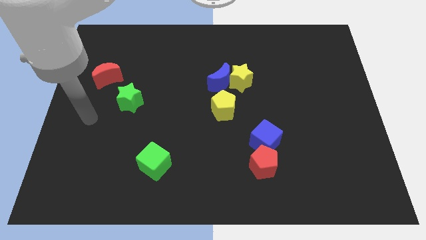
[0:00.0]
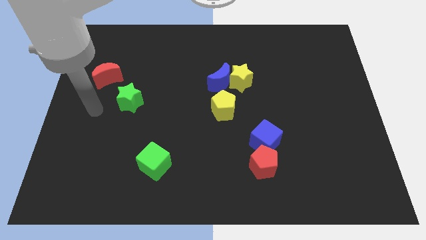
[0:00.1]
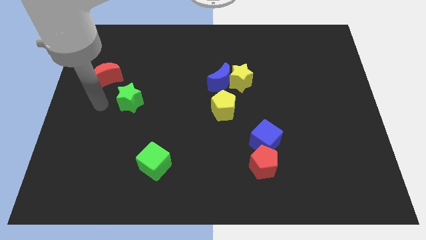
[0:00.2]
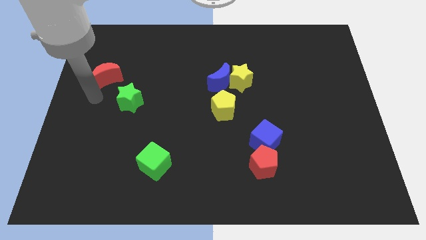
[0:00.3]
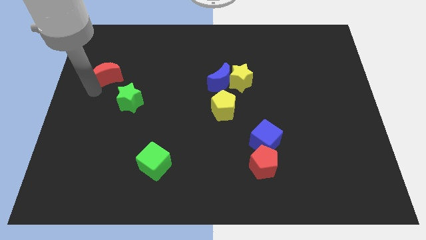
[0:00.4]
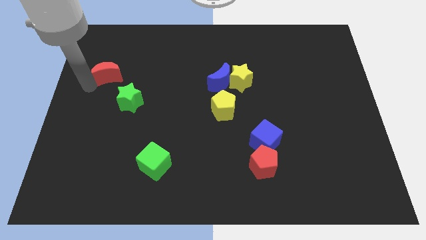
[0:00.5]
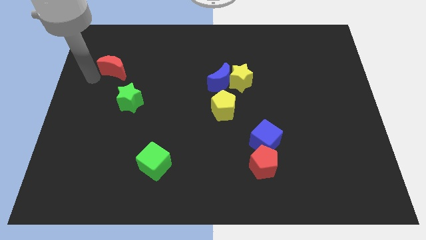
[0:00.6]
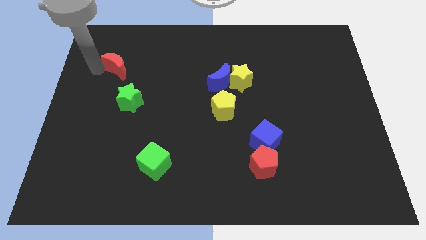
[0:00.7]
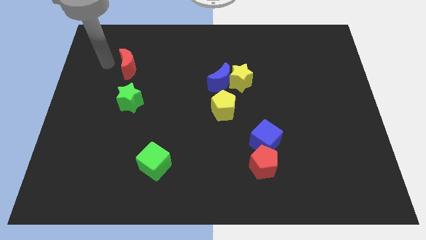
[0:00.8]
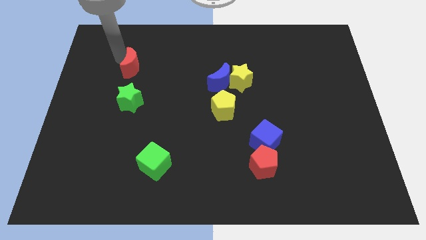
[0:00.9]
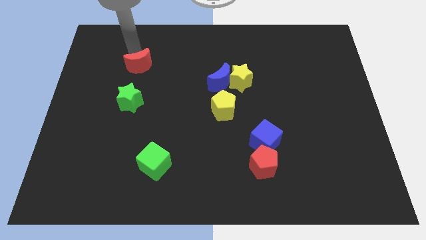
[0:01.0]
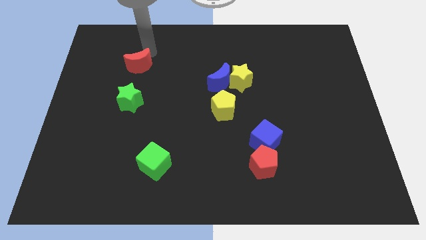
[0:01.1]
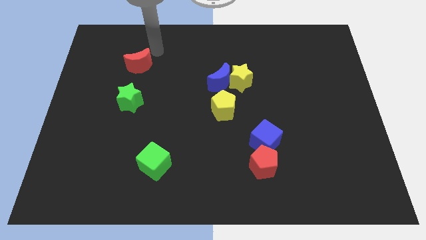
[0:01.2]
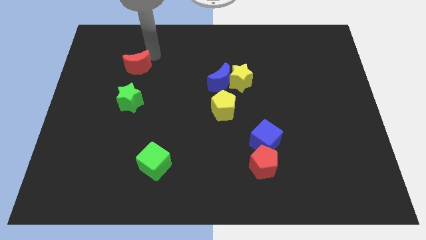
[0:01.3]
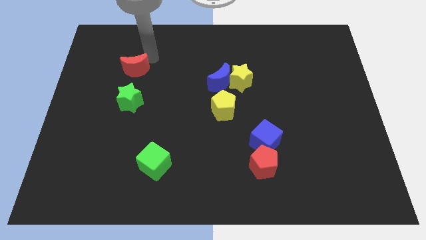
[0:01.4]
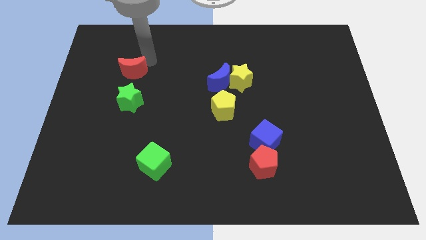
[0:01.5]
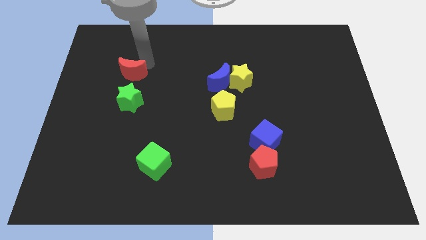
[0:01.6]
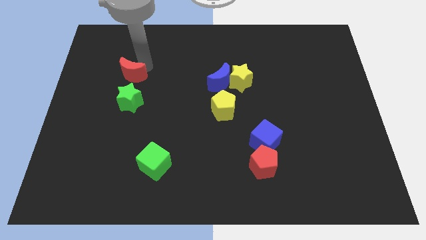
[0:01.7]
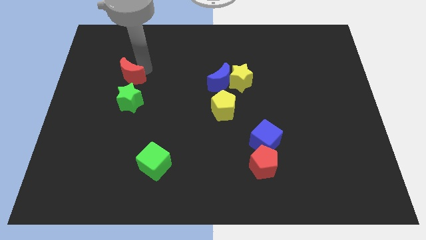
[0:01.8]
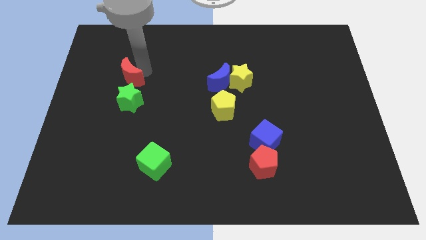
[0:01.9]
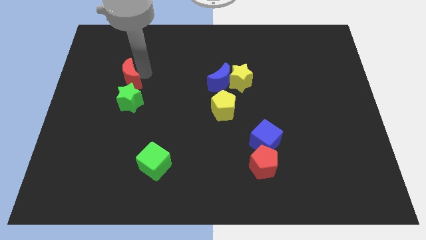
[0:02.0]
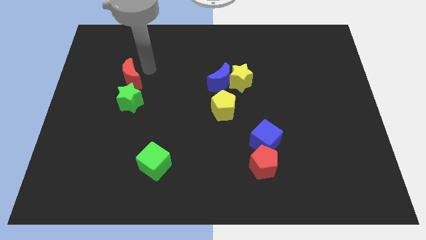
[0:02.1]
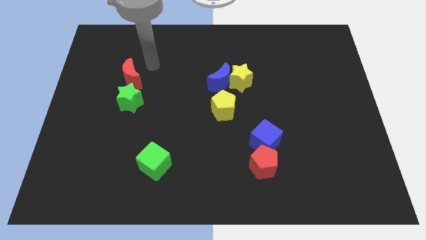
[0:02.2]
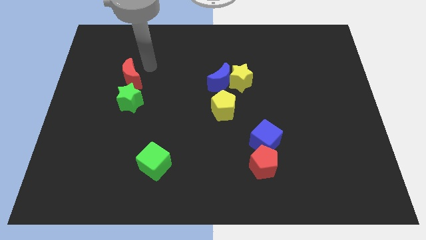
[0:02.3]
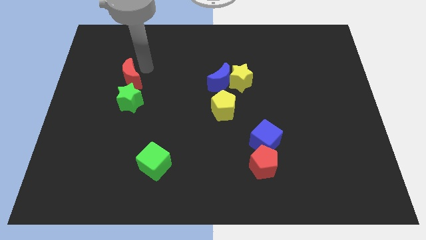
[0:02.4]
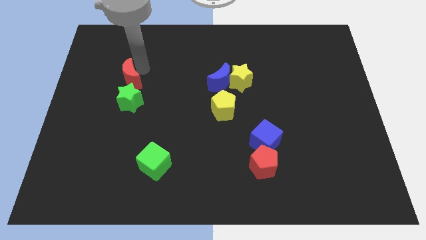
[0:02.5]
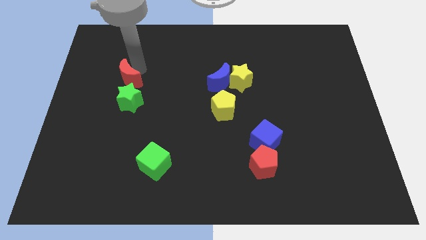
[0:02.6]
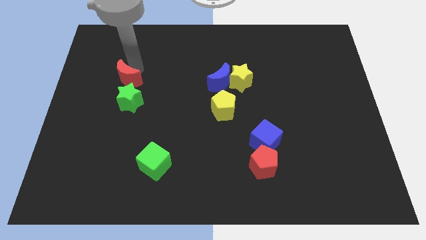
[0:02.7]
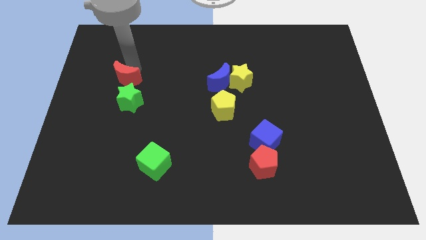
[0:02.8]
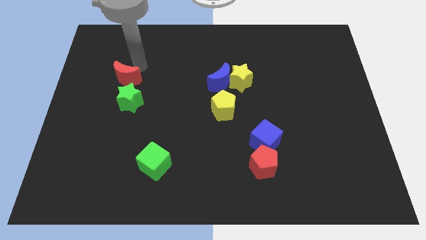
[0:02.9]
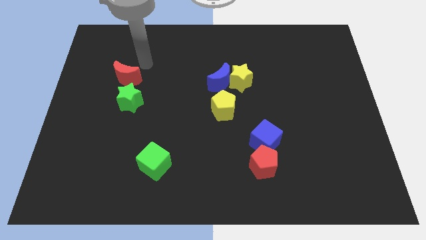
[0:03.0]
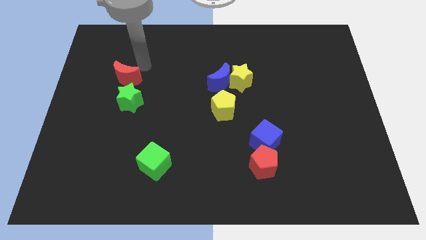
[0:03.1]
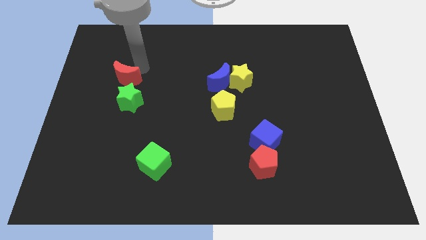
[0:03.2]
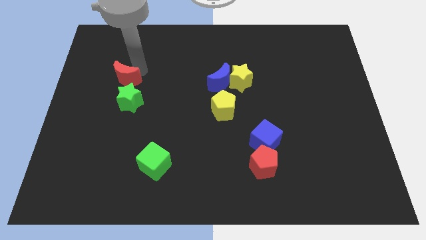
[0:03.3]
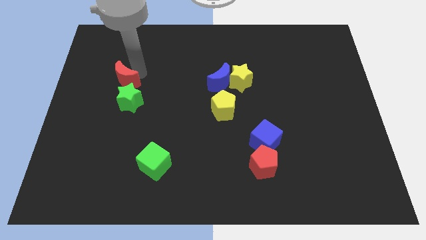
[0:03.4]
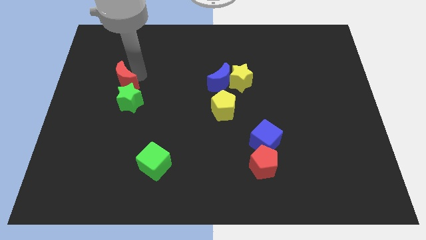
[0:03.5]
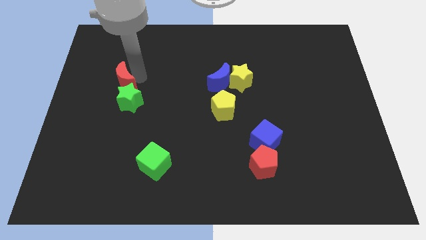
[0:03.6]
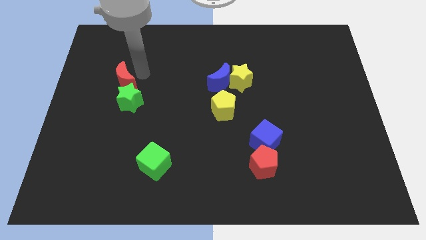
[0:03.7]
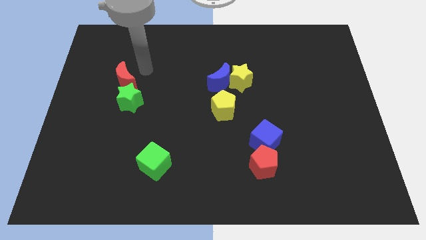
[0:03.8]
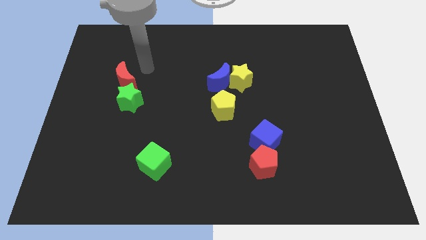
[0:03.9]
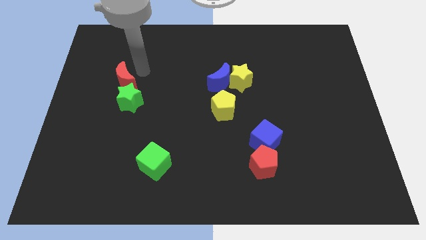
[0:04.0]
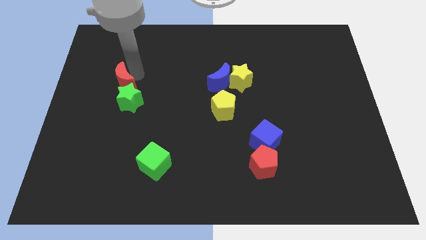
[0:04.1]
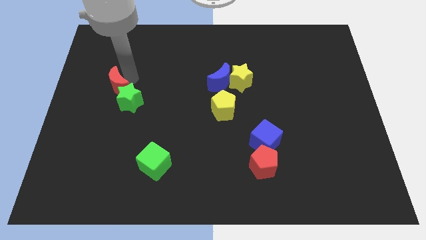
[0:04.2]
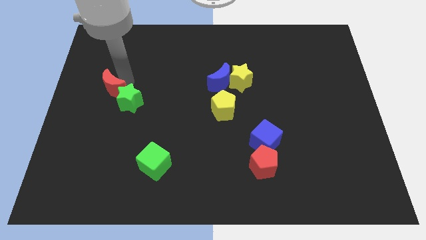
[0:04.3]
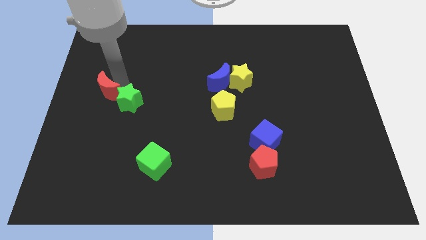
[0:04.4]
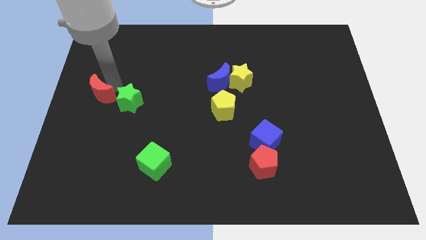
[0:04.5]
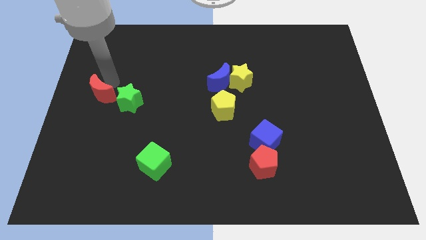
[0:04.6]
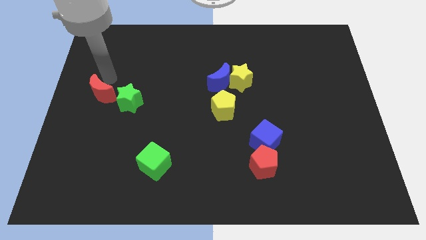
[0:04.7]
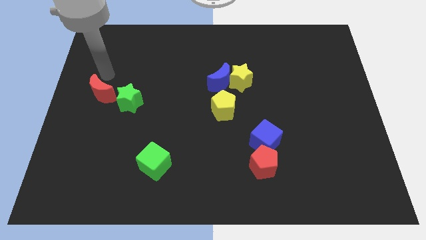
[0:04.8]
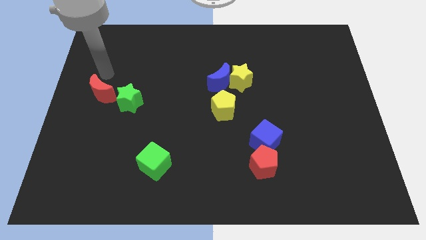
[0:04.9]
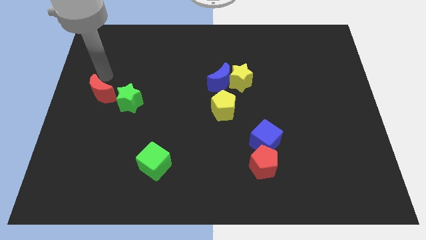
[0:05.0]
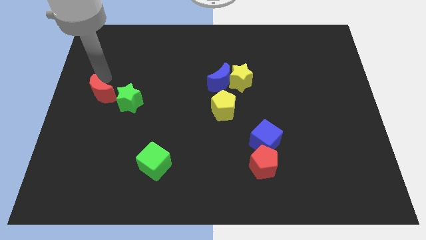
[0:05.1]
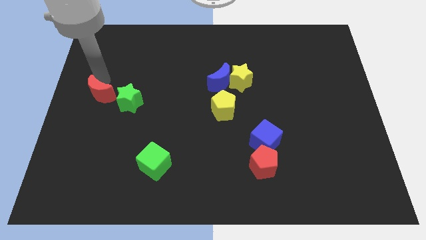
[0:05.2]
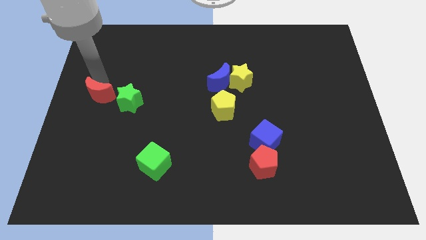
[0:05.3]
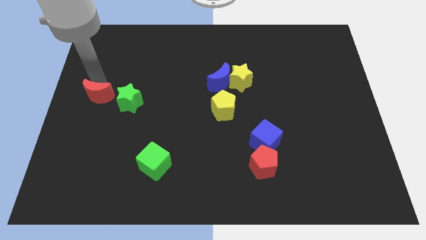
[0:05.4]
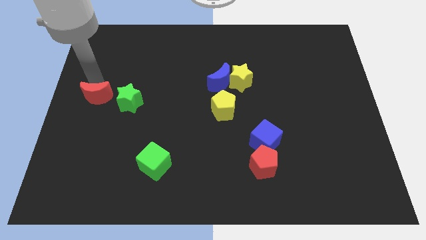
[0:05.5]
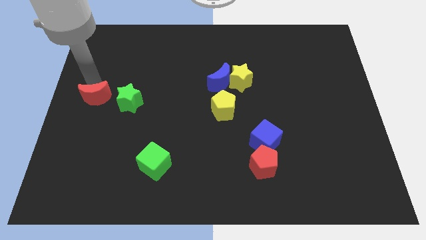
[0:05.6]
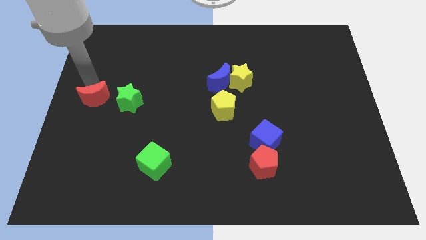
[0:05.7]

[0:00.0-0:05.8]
move the red moon down slightly

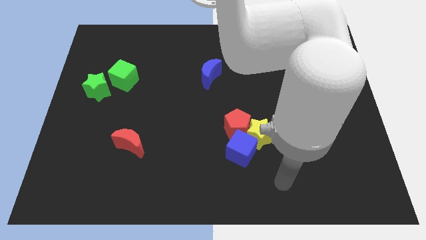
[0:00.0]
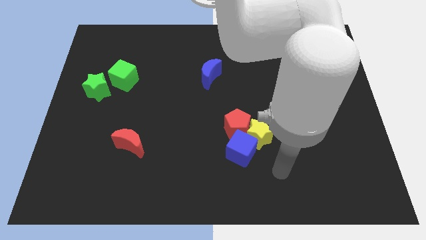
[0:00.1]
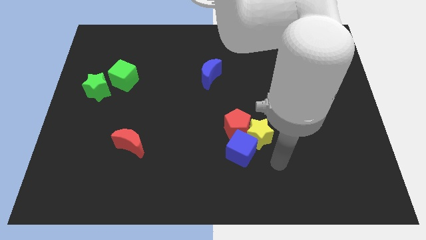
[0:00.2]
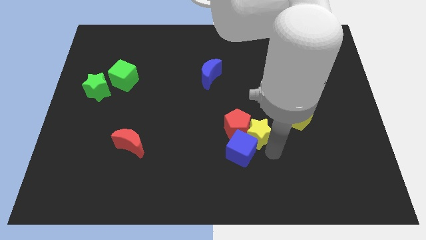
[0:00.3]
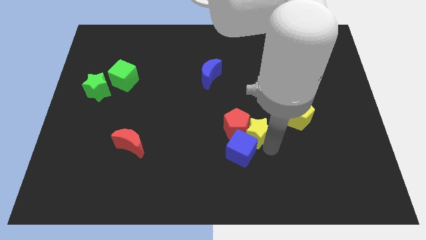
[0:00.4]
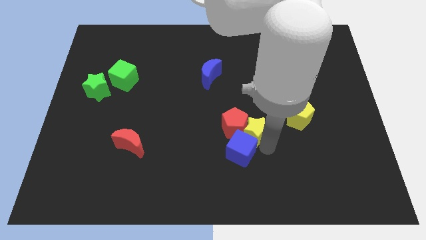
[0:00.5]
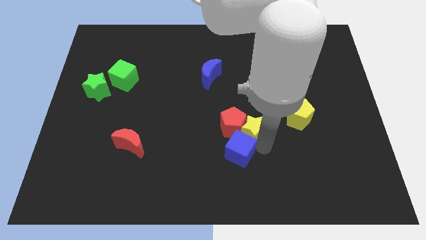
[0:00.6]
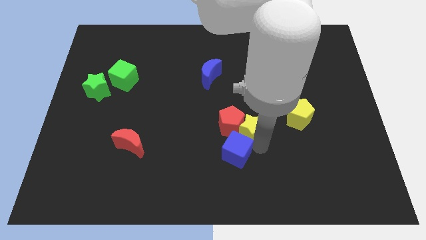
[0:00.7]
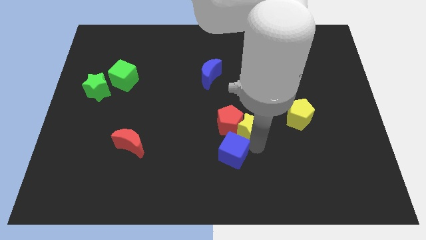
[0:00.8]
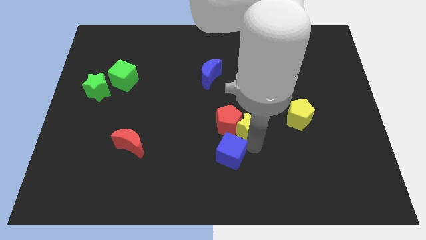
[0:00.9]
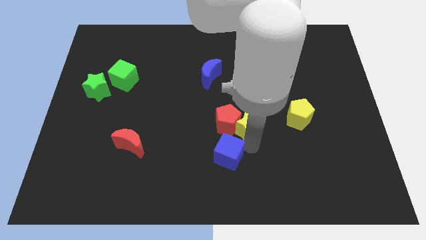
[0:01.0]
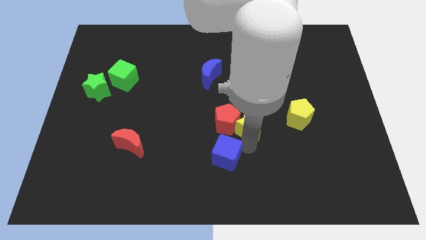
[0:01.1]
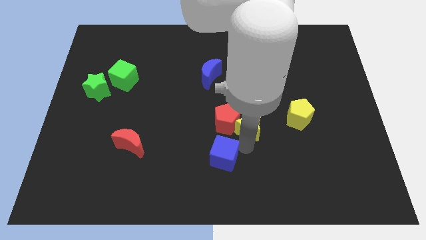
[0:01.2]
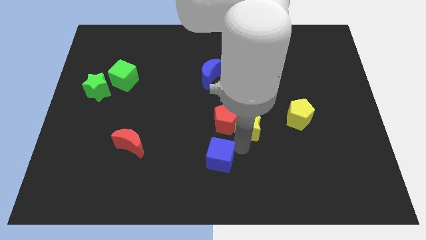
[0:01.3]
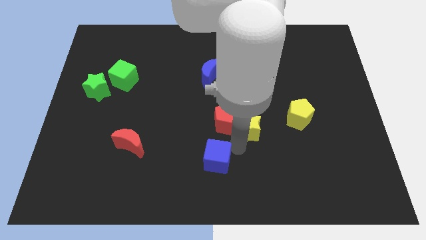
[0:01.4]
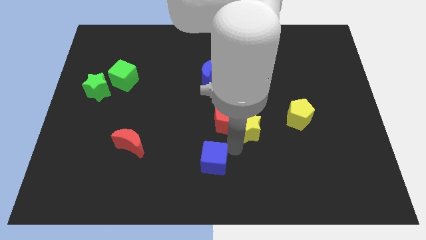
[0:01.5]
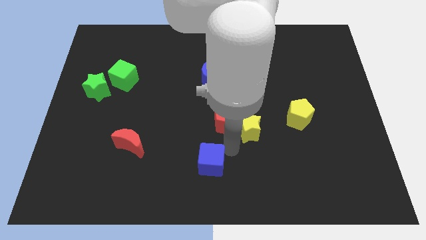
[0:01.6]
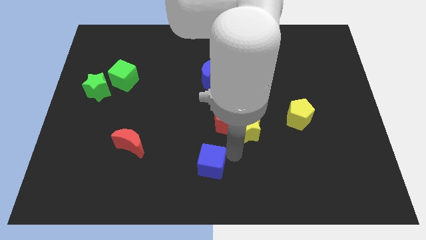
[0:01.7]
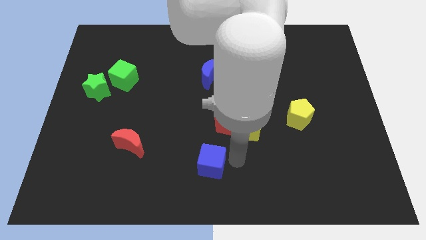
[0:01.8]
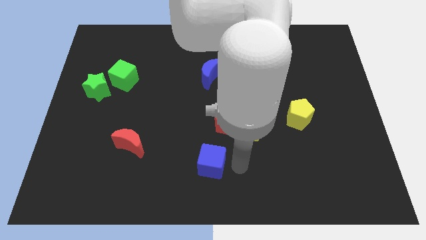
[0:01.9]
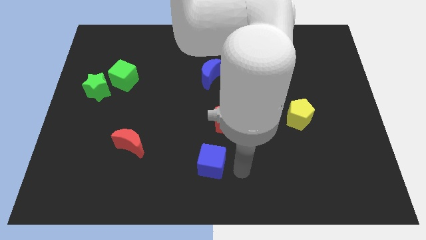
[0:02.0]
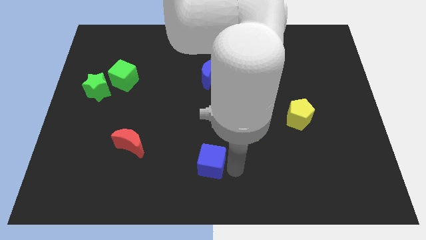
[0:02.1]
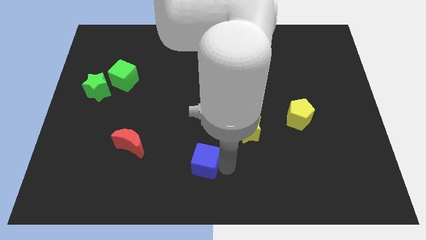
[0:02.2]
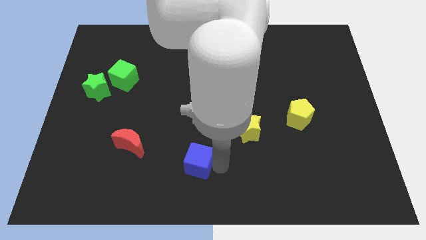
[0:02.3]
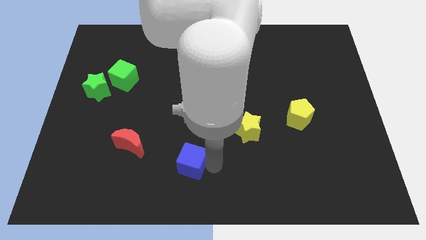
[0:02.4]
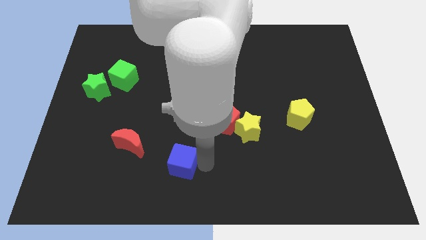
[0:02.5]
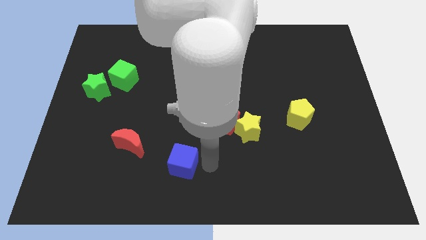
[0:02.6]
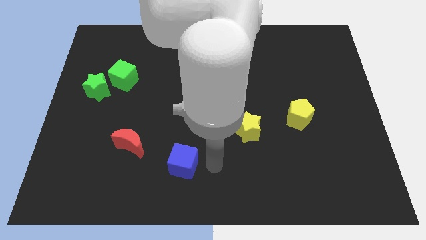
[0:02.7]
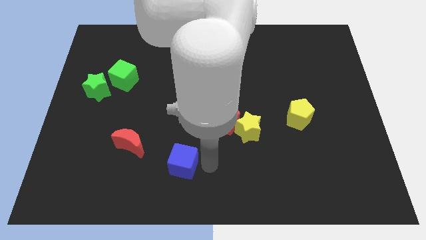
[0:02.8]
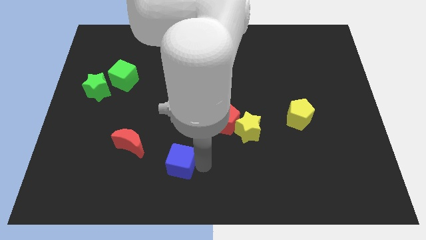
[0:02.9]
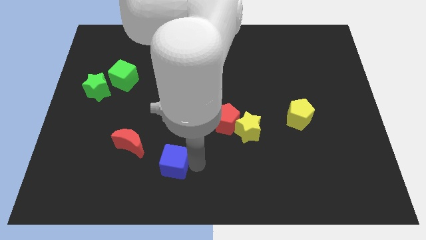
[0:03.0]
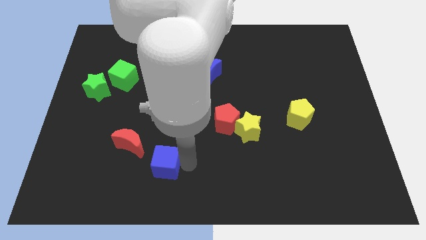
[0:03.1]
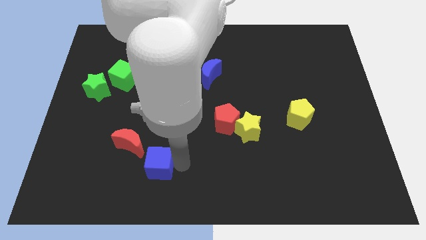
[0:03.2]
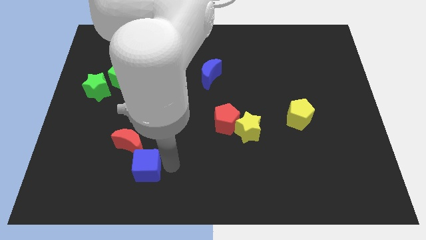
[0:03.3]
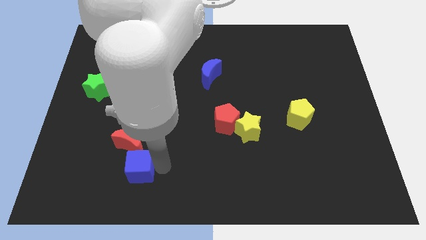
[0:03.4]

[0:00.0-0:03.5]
push the blue cube to the left
